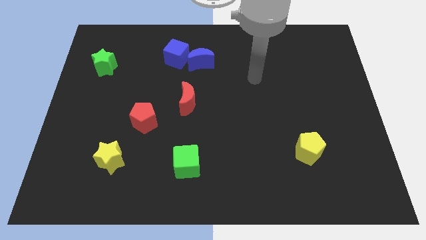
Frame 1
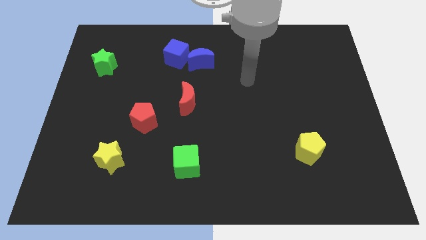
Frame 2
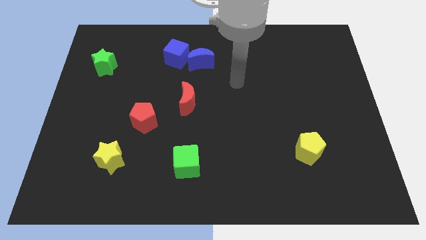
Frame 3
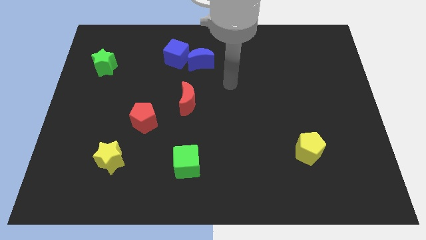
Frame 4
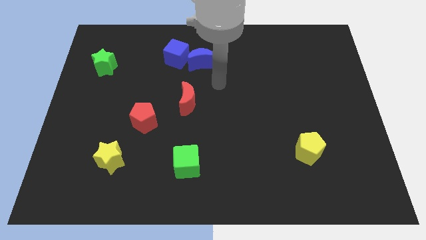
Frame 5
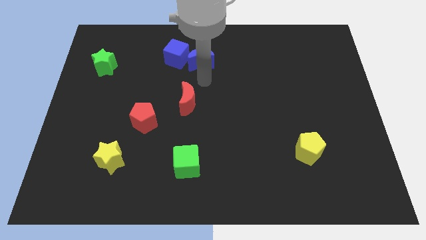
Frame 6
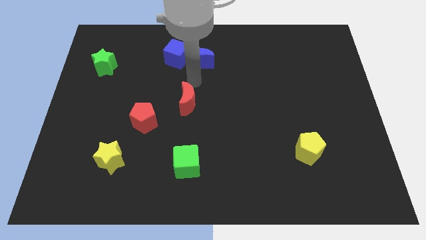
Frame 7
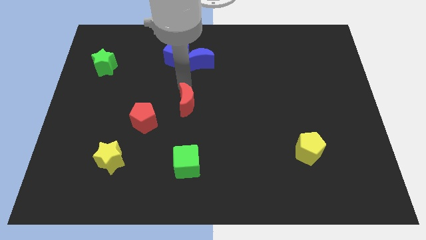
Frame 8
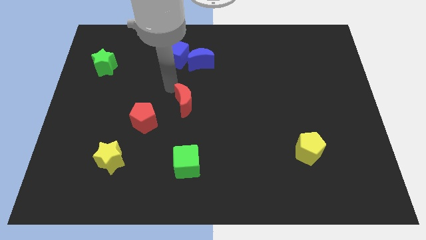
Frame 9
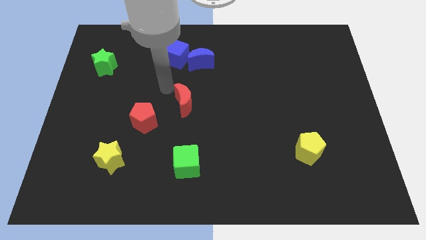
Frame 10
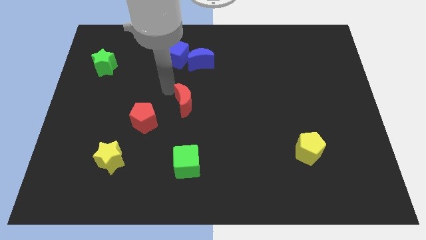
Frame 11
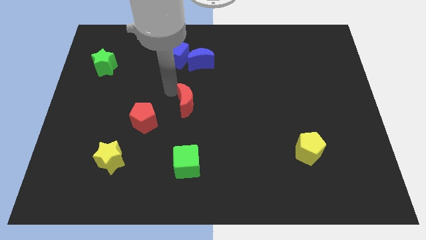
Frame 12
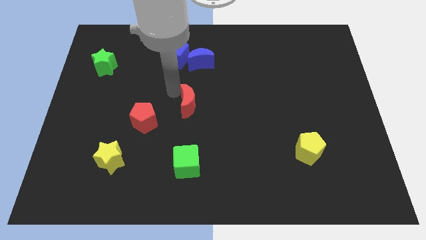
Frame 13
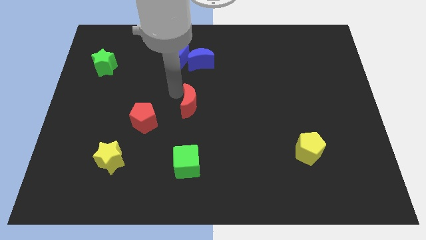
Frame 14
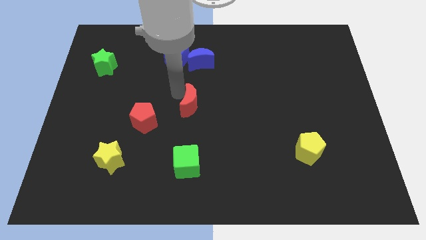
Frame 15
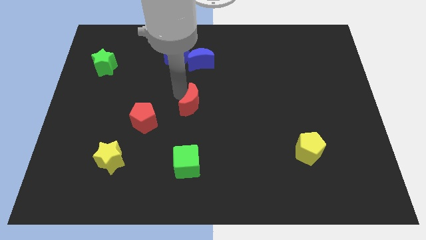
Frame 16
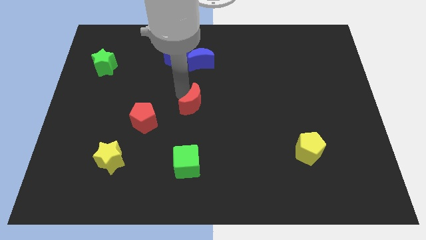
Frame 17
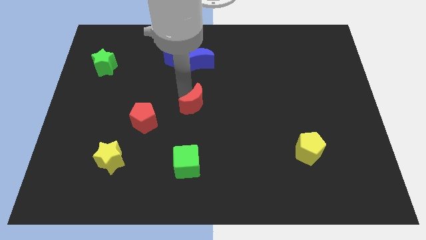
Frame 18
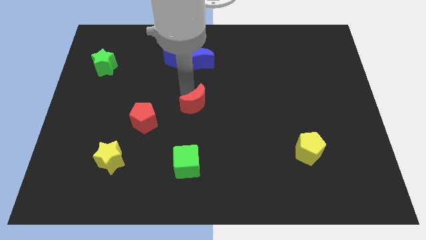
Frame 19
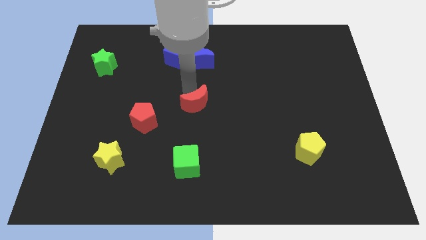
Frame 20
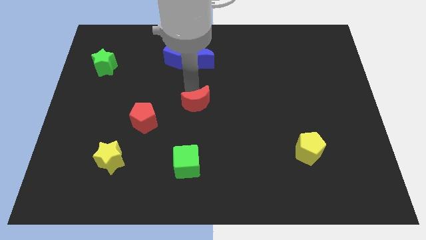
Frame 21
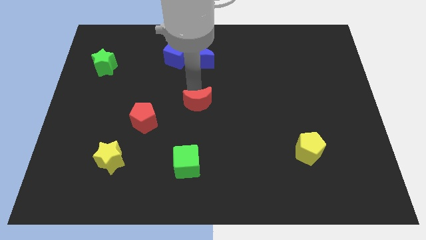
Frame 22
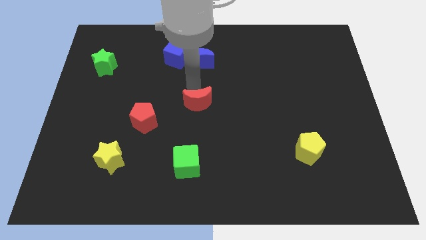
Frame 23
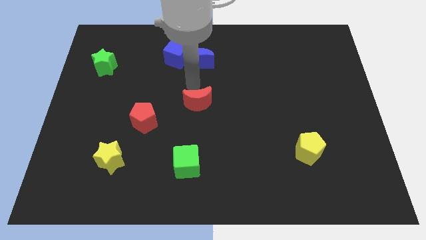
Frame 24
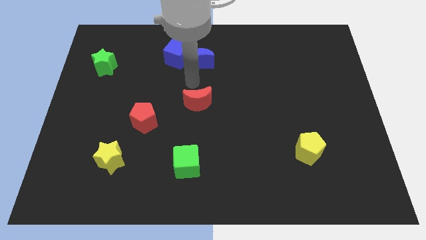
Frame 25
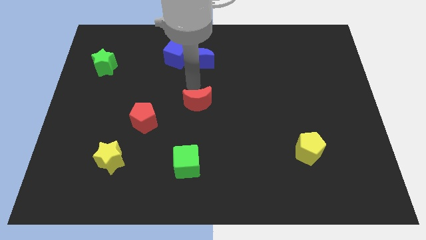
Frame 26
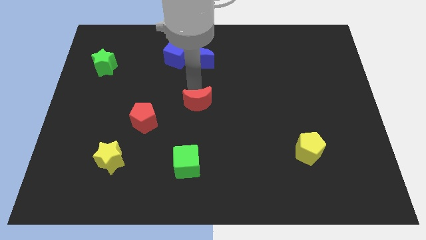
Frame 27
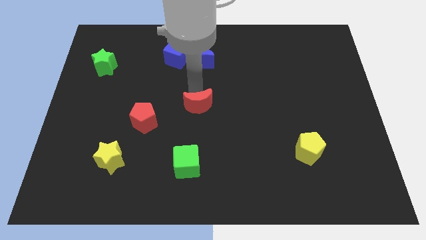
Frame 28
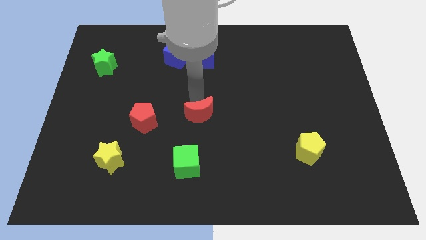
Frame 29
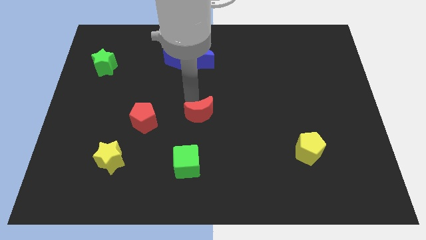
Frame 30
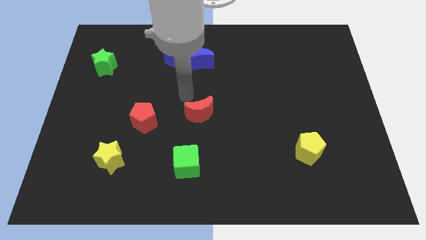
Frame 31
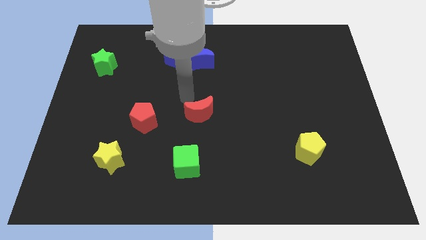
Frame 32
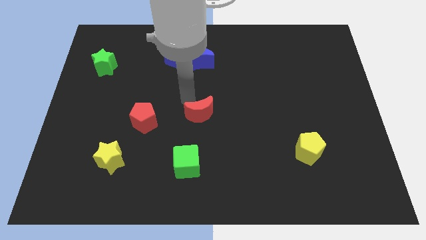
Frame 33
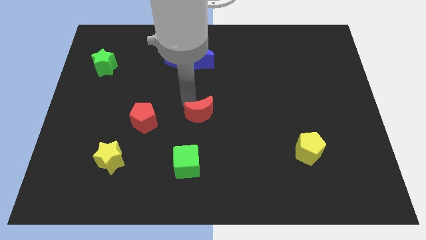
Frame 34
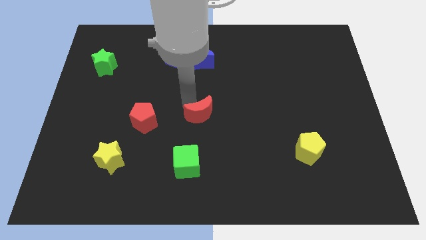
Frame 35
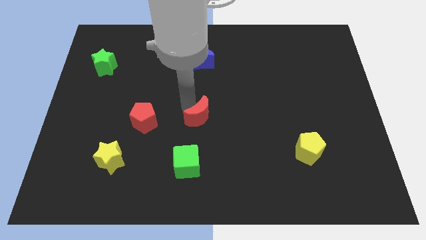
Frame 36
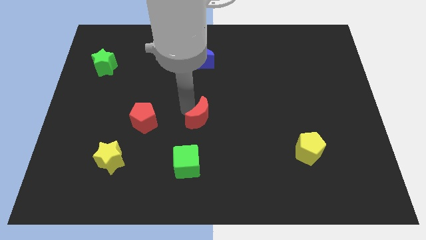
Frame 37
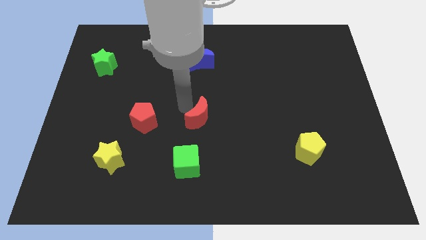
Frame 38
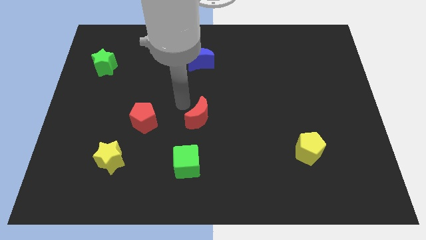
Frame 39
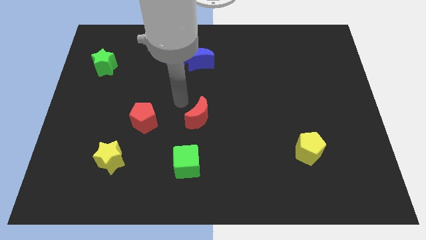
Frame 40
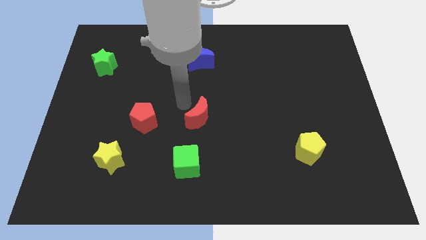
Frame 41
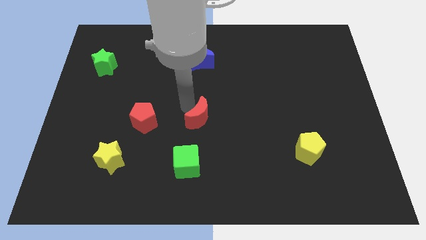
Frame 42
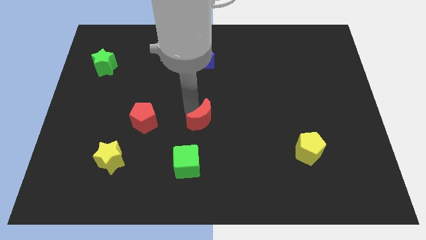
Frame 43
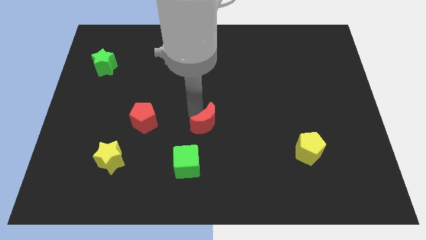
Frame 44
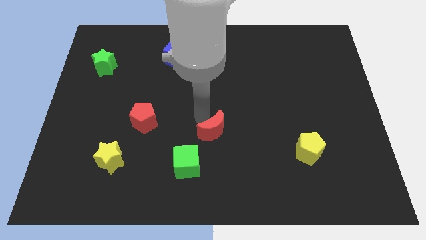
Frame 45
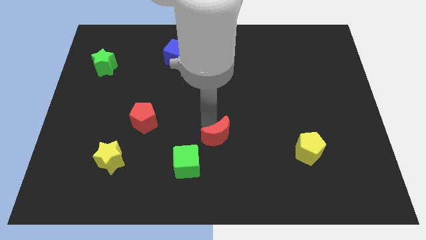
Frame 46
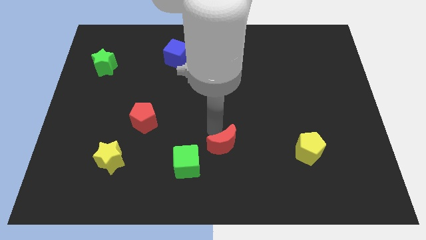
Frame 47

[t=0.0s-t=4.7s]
put the red moon right of the green cube

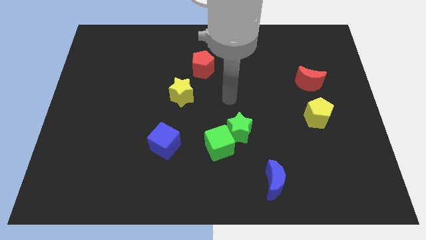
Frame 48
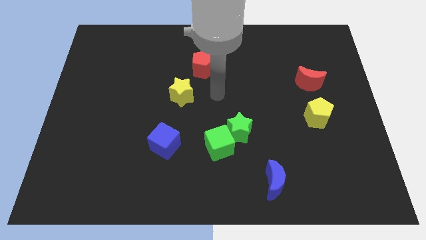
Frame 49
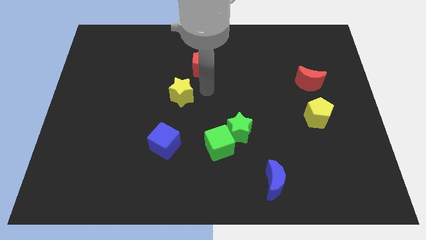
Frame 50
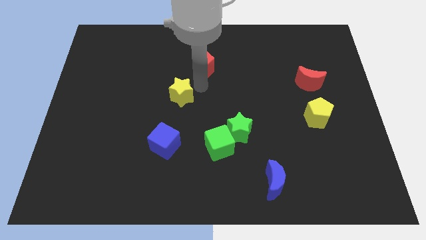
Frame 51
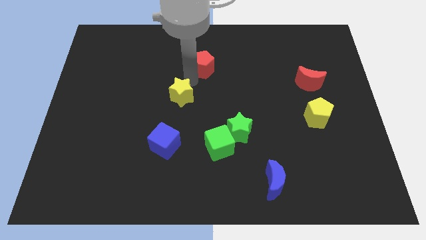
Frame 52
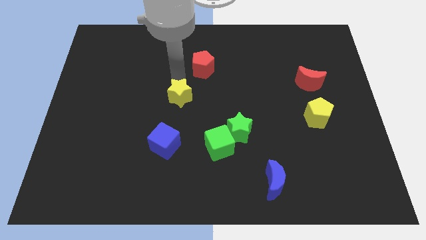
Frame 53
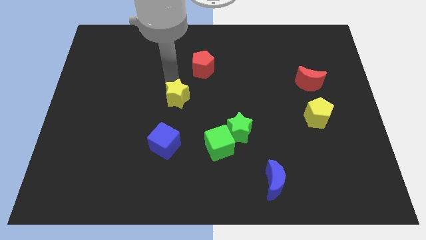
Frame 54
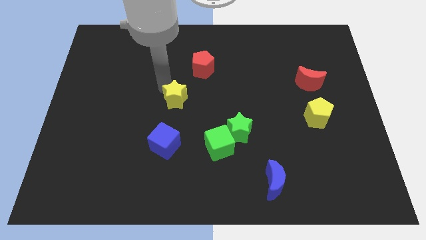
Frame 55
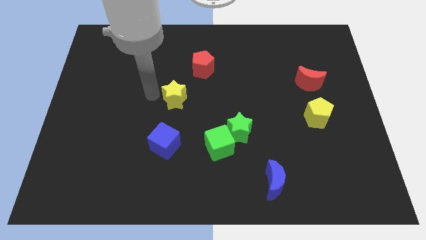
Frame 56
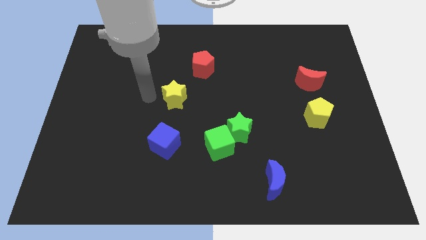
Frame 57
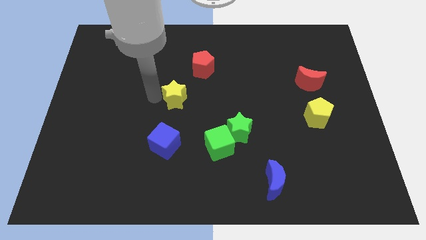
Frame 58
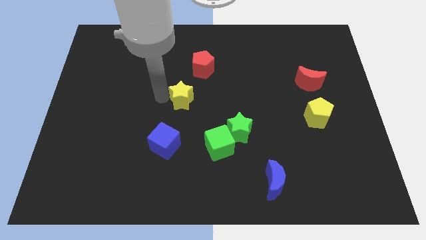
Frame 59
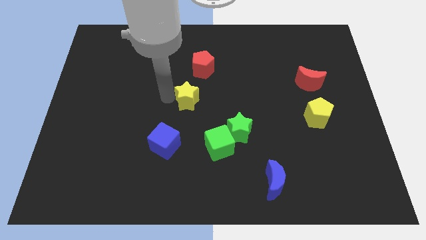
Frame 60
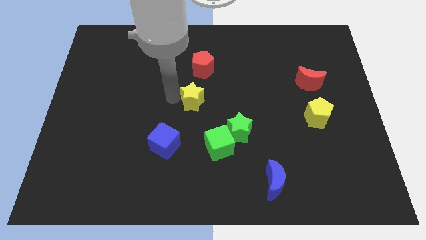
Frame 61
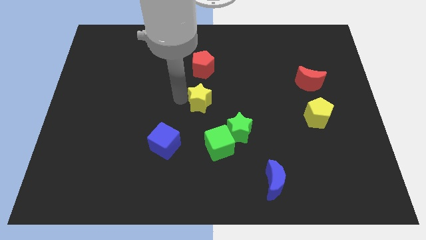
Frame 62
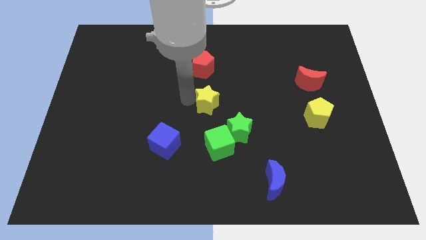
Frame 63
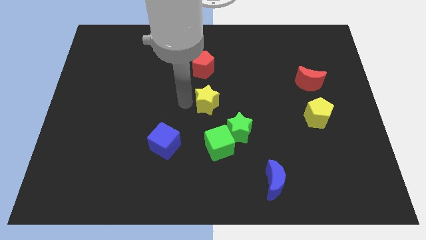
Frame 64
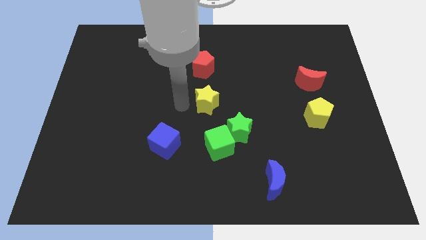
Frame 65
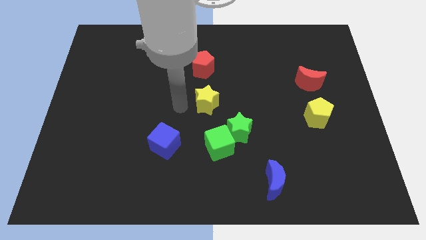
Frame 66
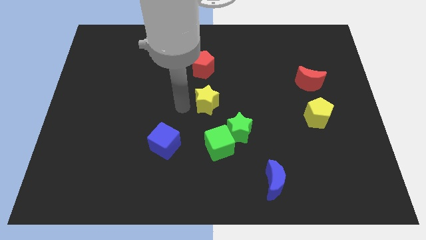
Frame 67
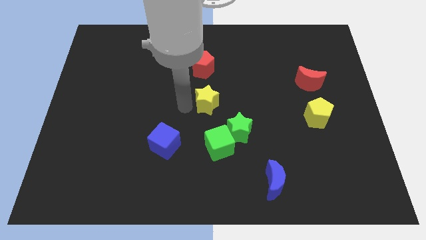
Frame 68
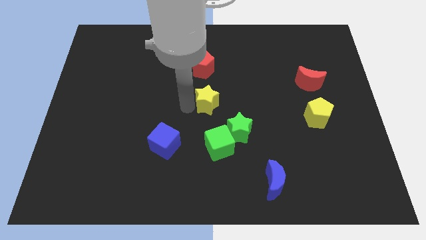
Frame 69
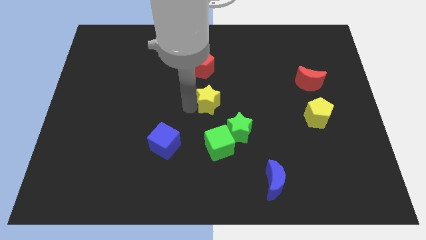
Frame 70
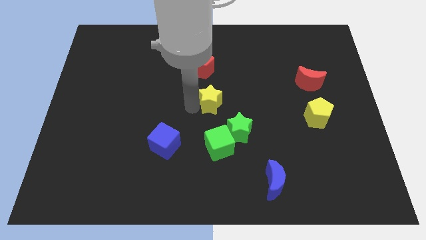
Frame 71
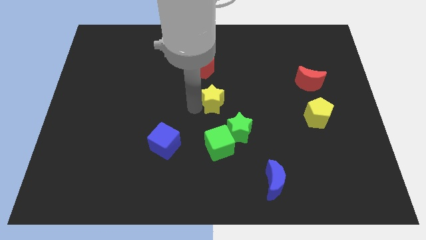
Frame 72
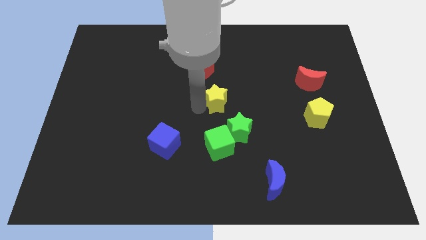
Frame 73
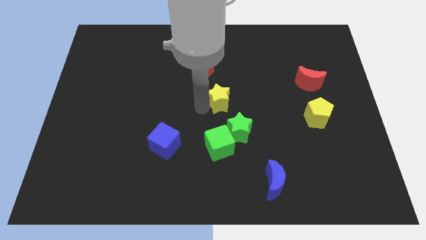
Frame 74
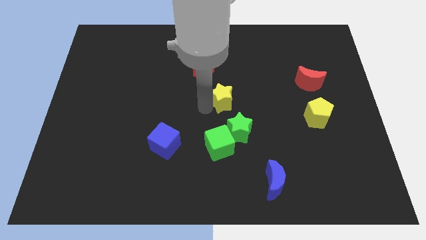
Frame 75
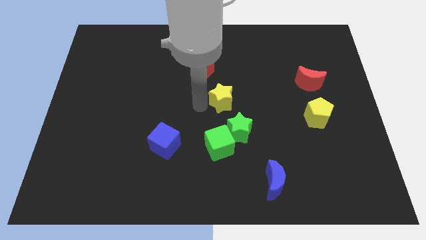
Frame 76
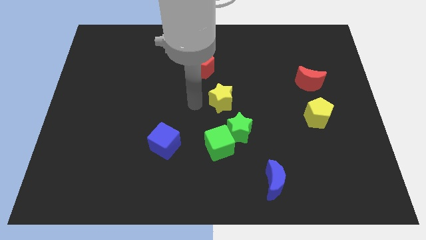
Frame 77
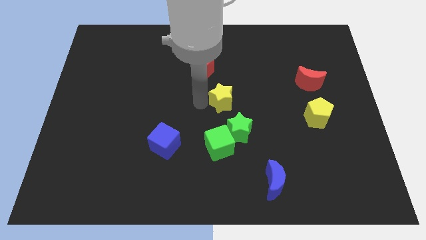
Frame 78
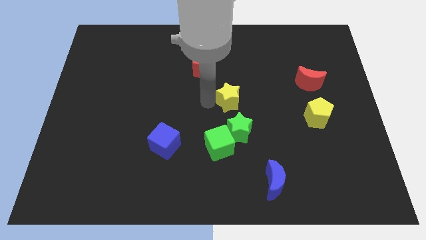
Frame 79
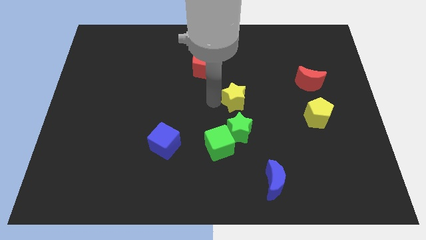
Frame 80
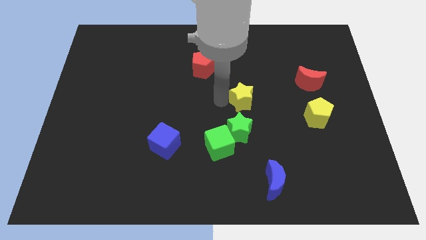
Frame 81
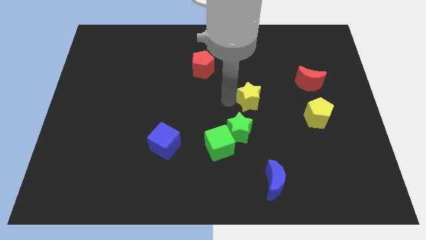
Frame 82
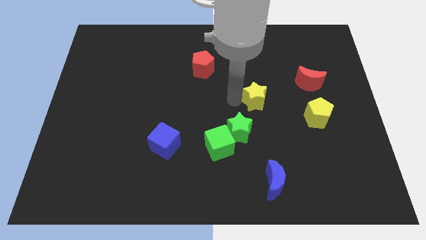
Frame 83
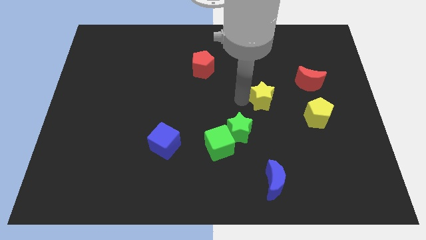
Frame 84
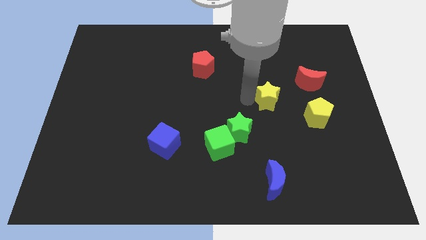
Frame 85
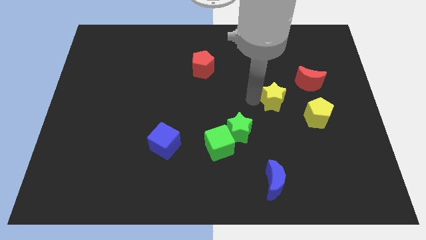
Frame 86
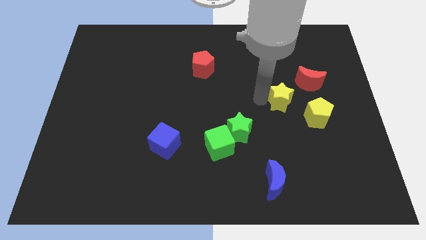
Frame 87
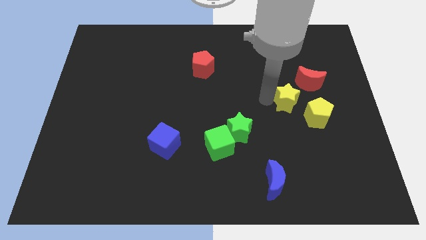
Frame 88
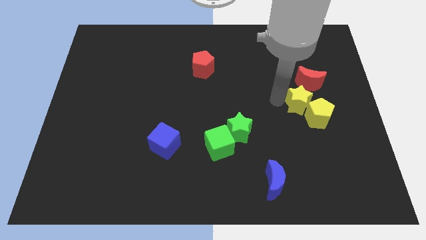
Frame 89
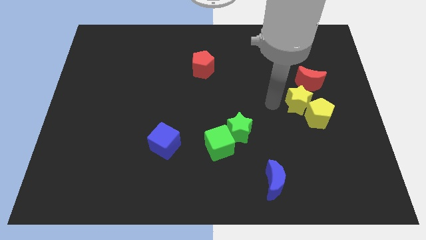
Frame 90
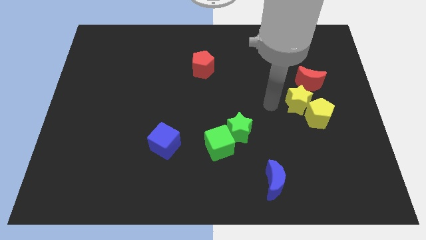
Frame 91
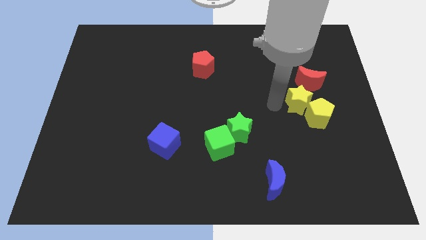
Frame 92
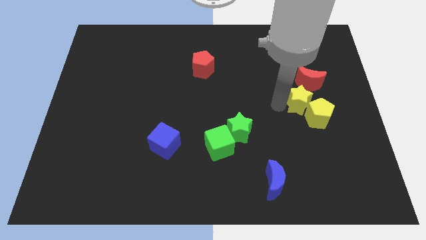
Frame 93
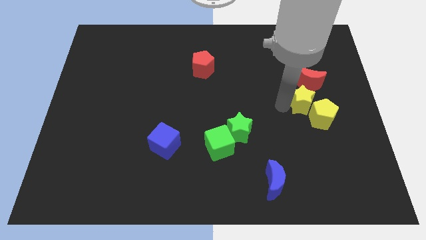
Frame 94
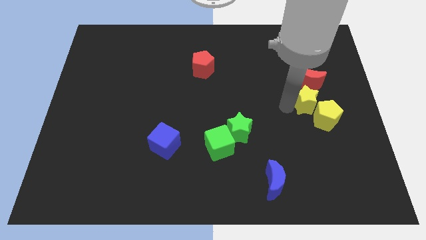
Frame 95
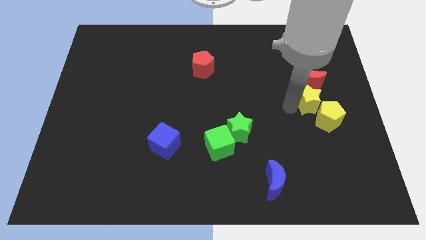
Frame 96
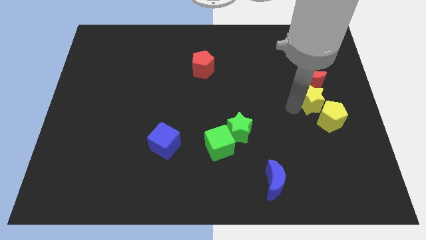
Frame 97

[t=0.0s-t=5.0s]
put the yellow star to the bottom right side of the red moon
